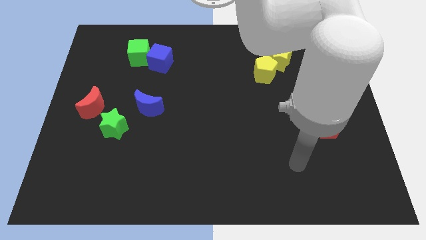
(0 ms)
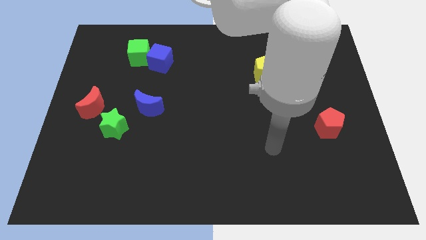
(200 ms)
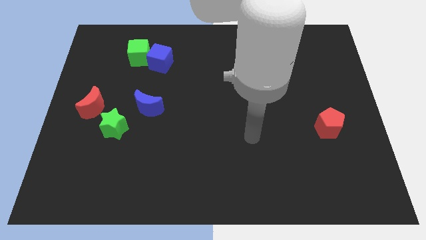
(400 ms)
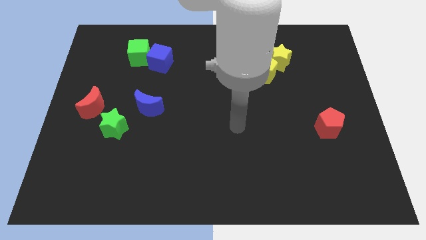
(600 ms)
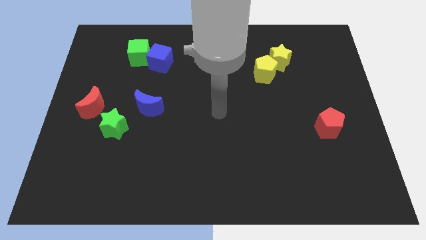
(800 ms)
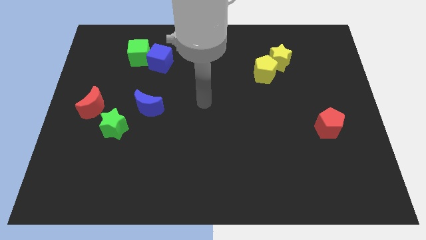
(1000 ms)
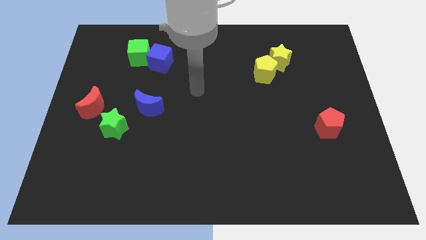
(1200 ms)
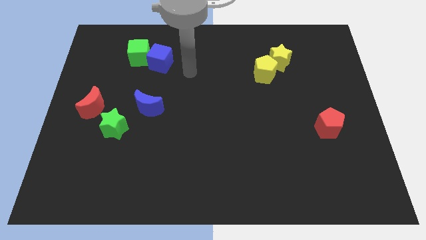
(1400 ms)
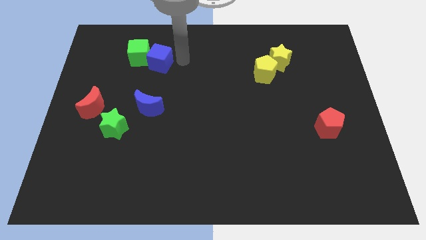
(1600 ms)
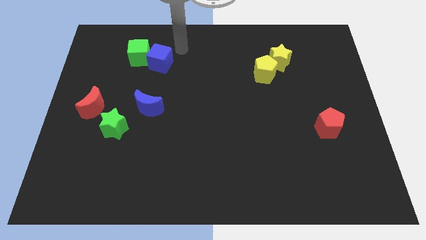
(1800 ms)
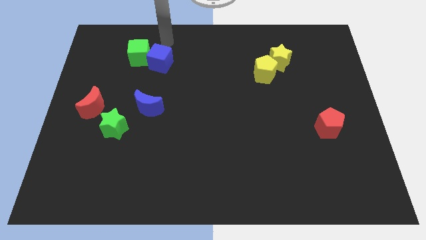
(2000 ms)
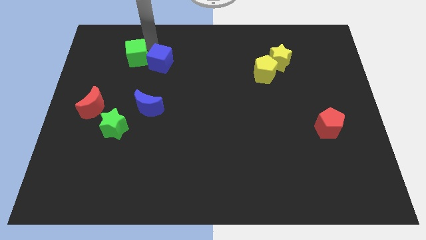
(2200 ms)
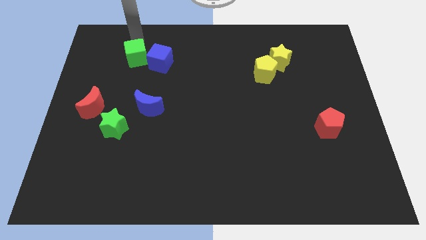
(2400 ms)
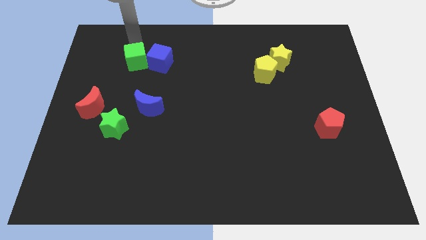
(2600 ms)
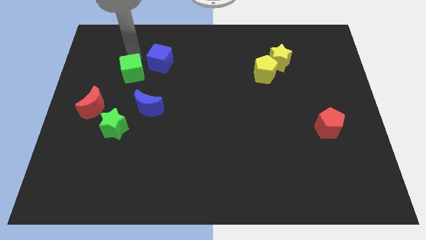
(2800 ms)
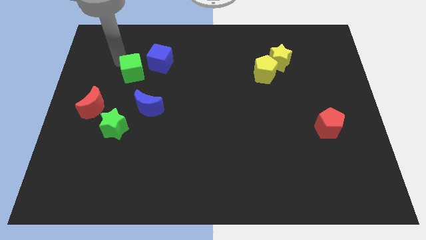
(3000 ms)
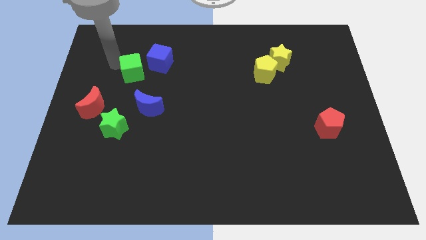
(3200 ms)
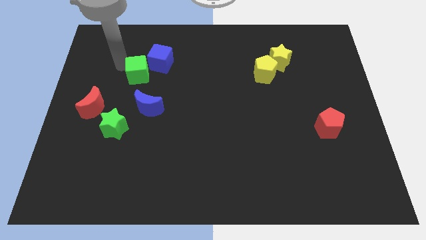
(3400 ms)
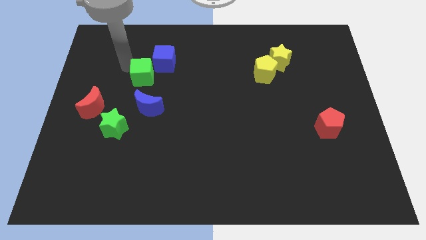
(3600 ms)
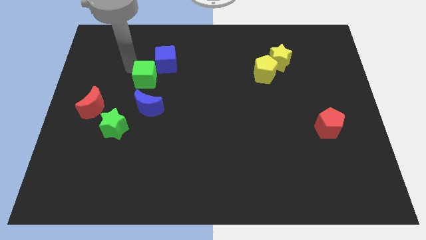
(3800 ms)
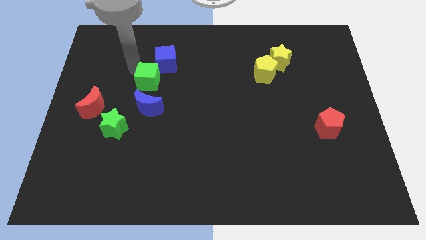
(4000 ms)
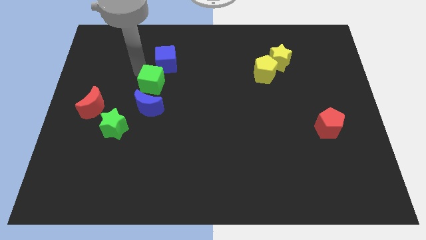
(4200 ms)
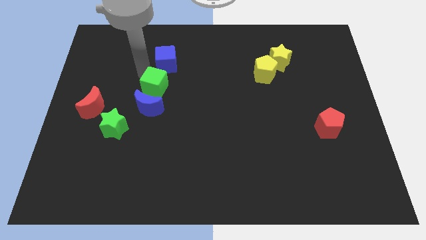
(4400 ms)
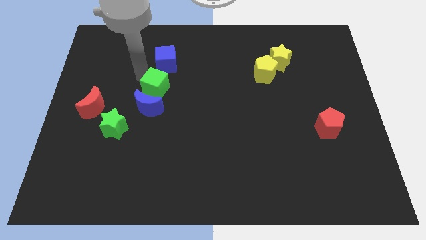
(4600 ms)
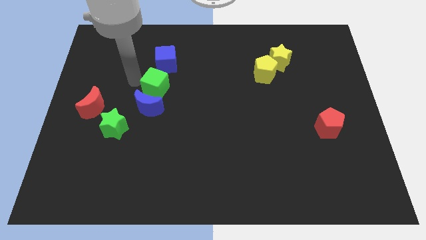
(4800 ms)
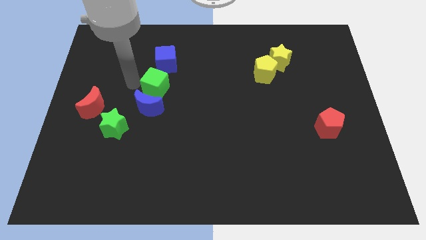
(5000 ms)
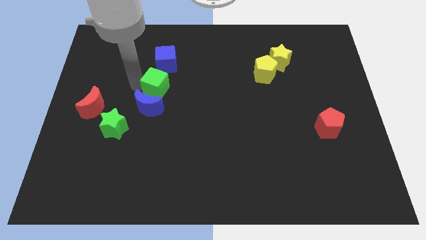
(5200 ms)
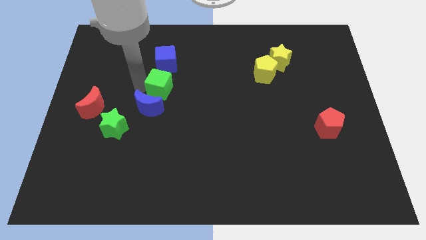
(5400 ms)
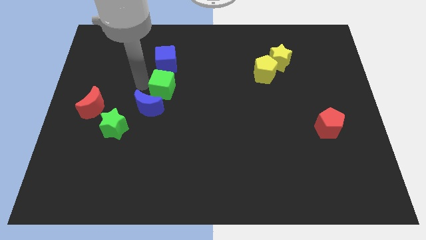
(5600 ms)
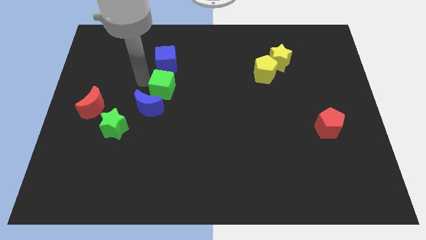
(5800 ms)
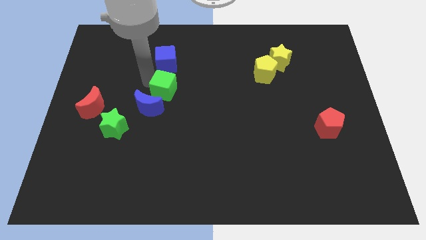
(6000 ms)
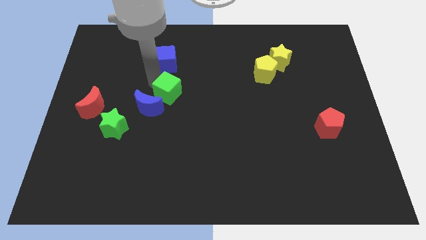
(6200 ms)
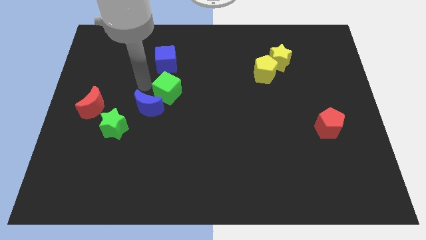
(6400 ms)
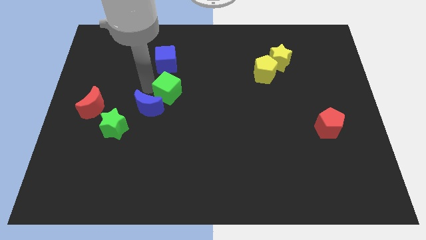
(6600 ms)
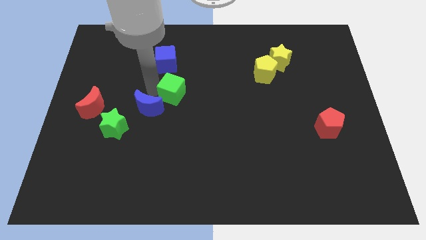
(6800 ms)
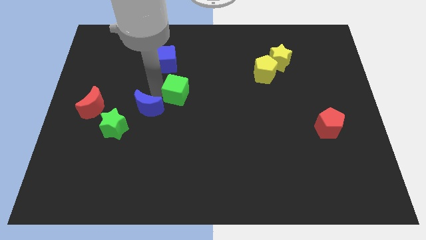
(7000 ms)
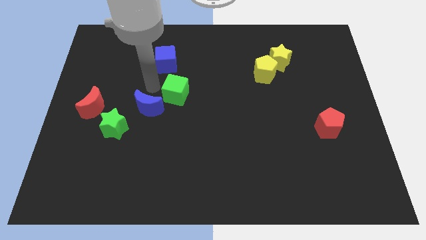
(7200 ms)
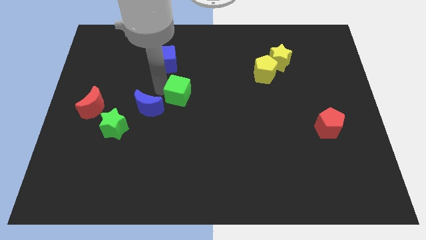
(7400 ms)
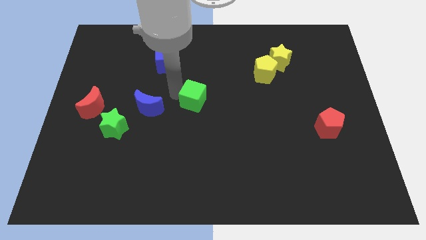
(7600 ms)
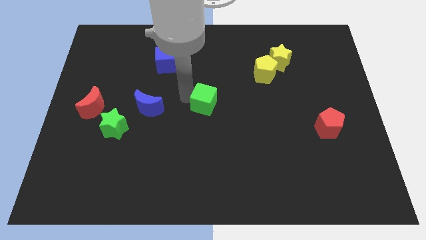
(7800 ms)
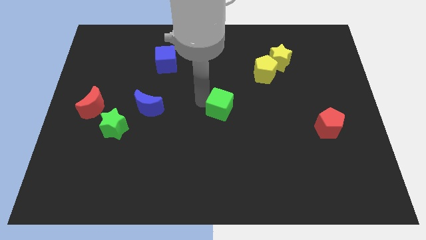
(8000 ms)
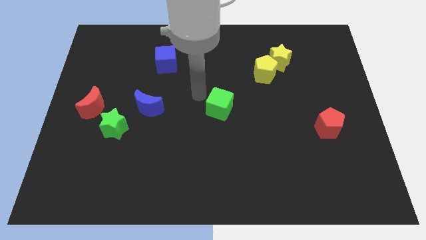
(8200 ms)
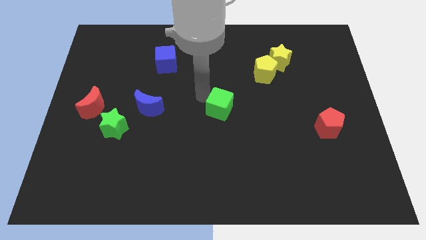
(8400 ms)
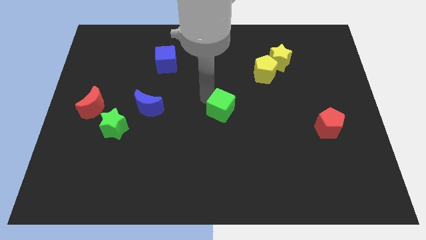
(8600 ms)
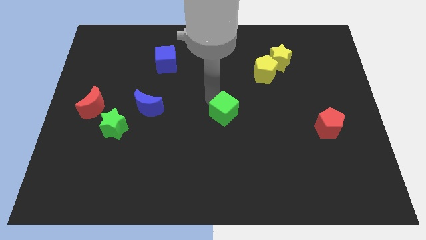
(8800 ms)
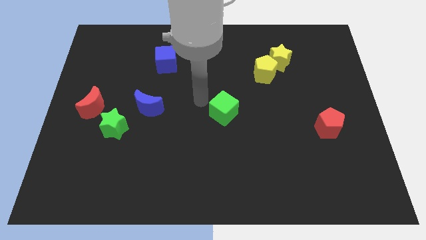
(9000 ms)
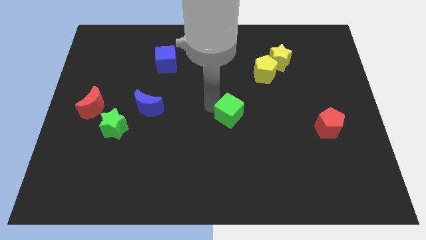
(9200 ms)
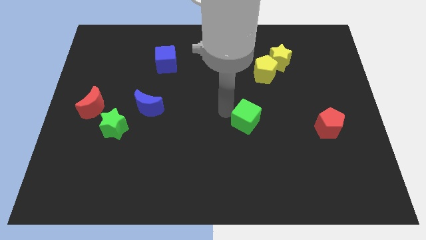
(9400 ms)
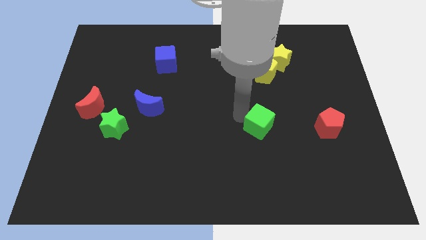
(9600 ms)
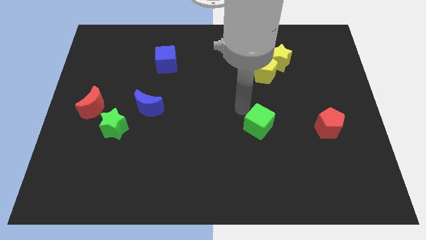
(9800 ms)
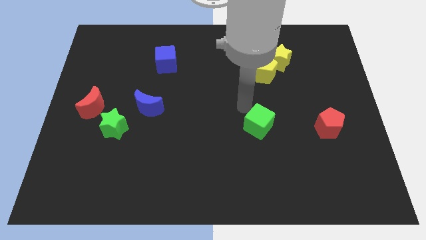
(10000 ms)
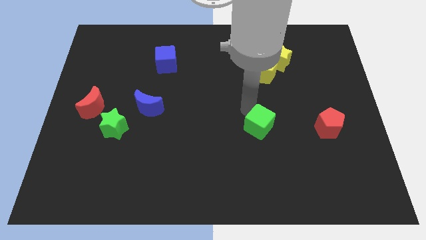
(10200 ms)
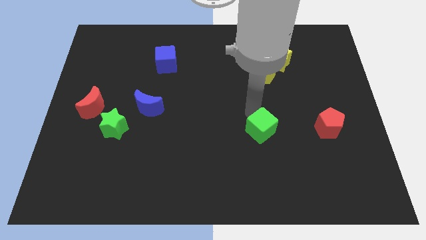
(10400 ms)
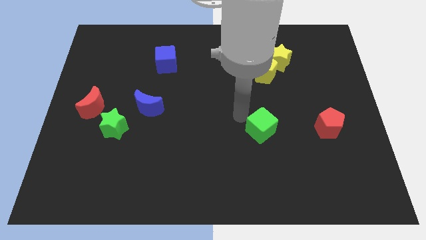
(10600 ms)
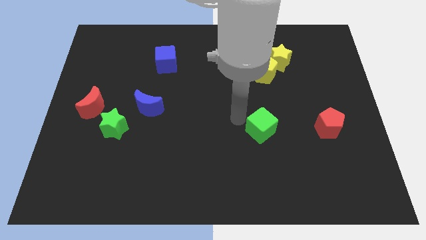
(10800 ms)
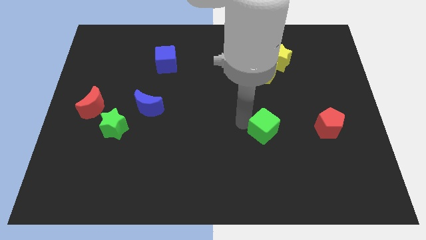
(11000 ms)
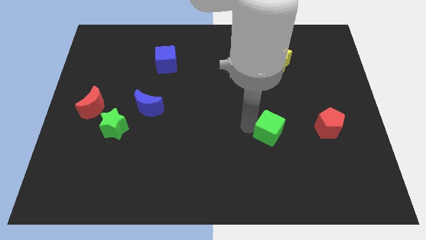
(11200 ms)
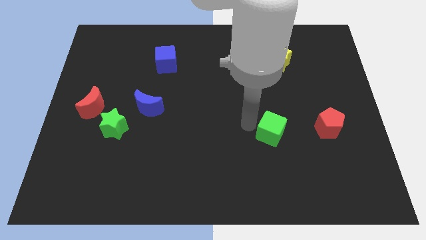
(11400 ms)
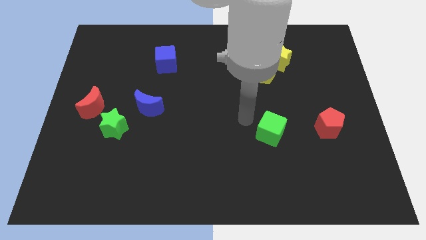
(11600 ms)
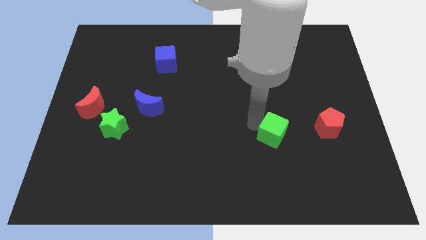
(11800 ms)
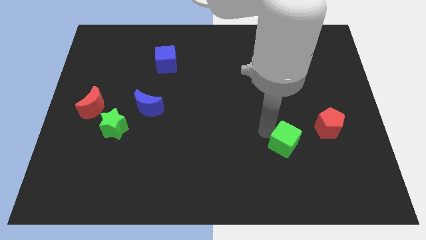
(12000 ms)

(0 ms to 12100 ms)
put the green cube to the bottom left side of the red pentagon

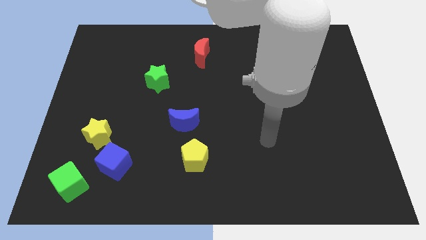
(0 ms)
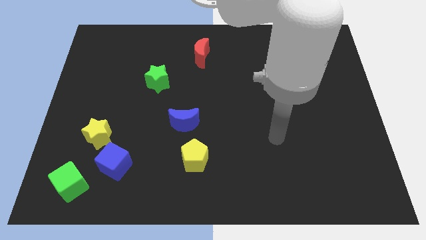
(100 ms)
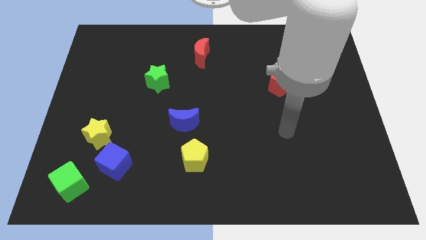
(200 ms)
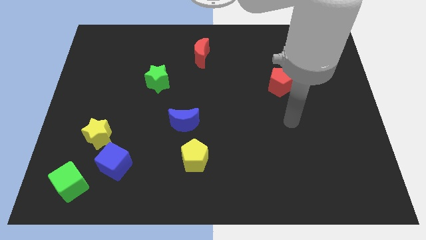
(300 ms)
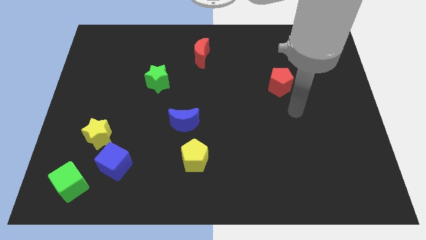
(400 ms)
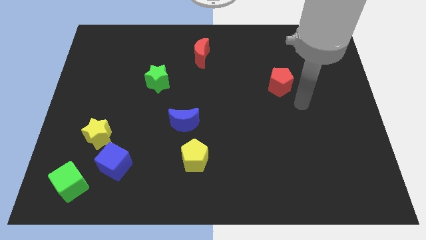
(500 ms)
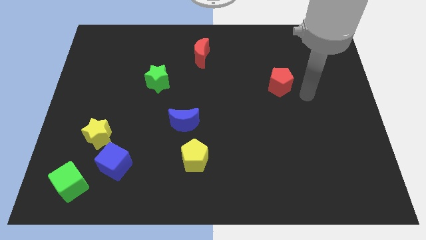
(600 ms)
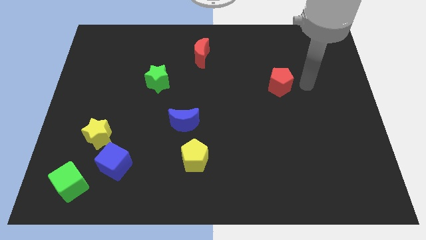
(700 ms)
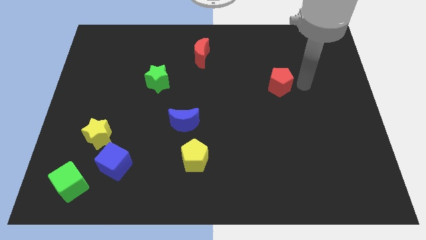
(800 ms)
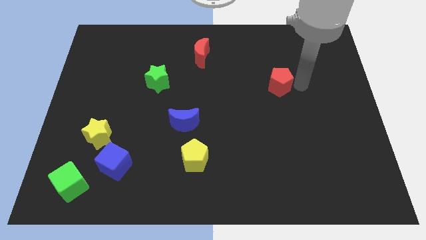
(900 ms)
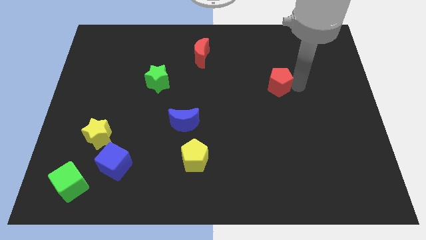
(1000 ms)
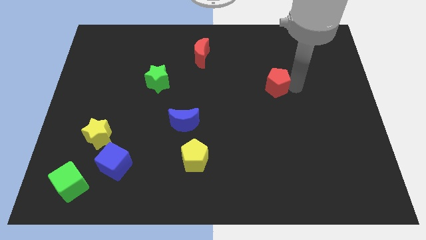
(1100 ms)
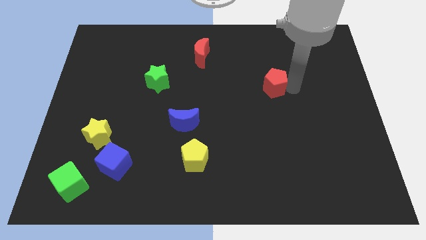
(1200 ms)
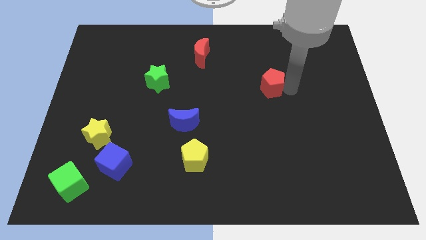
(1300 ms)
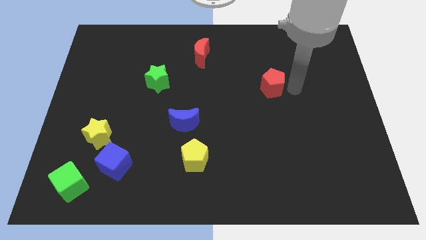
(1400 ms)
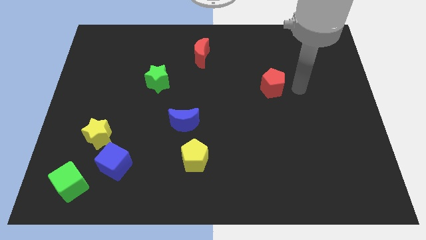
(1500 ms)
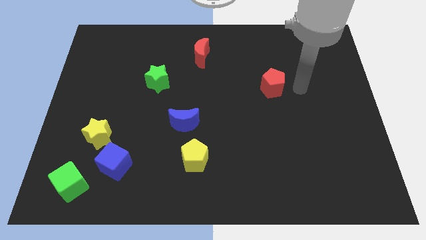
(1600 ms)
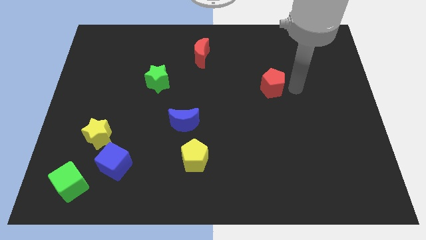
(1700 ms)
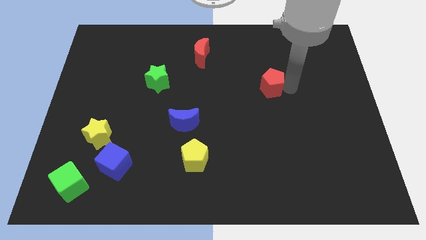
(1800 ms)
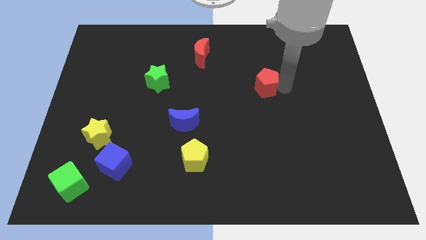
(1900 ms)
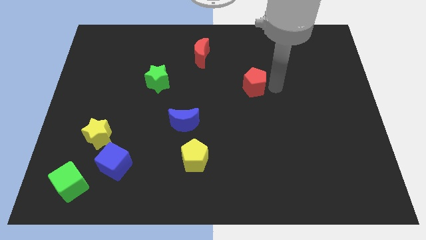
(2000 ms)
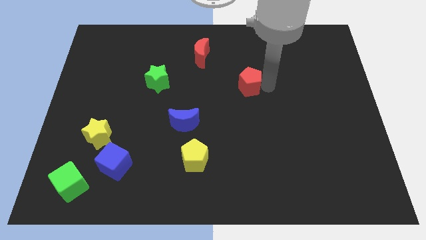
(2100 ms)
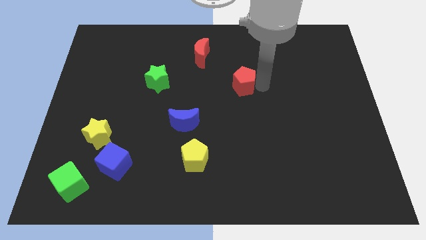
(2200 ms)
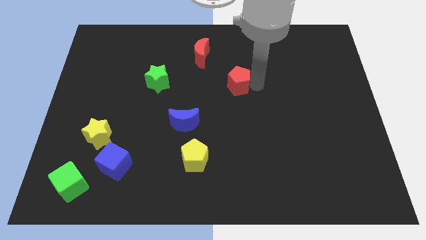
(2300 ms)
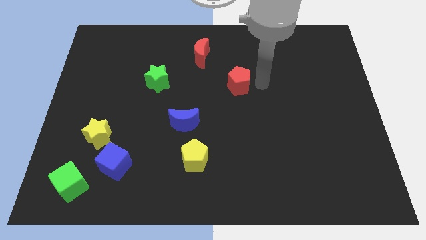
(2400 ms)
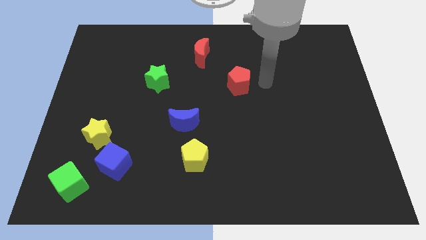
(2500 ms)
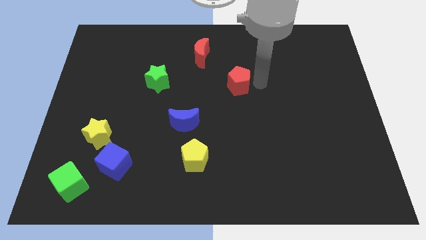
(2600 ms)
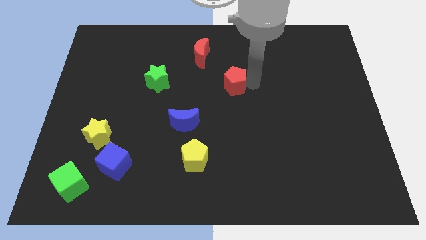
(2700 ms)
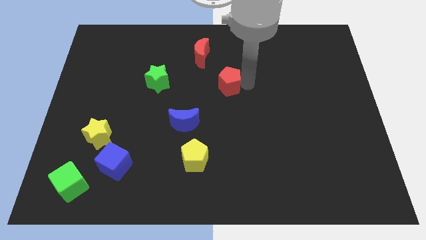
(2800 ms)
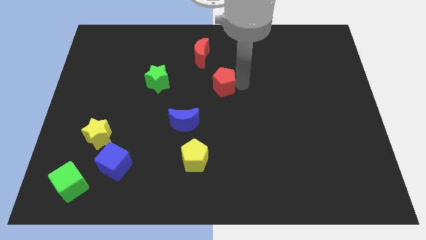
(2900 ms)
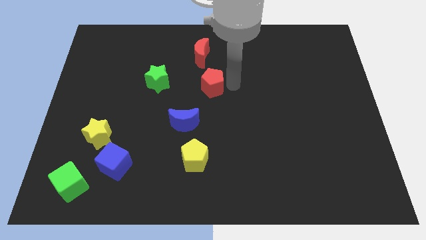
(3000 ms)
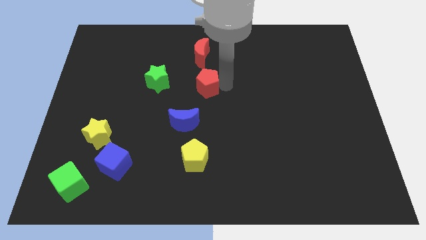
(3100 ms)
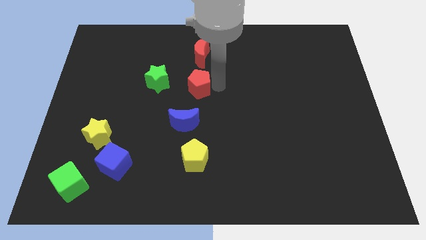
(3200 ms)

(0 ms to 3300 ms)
push the red pentagon above the blue moon
